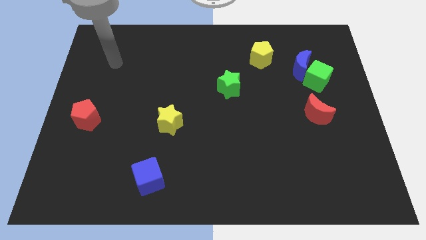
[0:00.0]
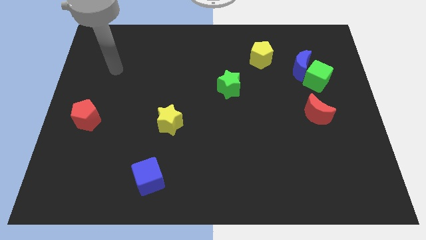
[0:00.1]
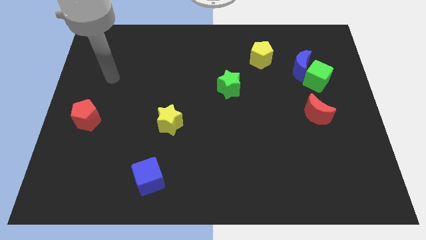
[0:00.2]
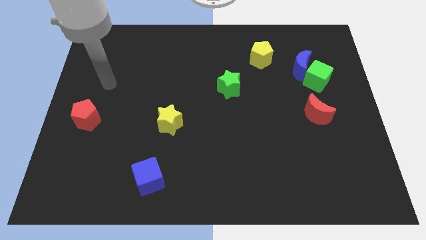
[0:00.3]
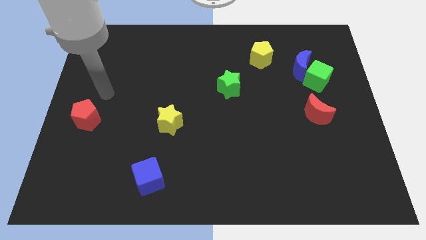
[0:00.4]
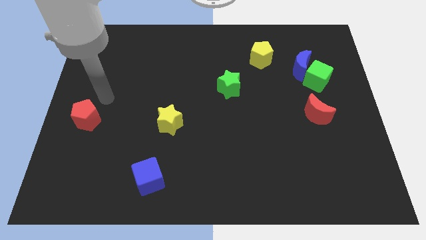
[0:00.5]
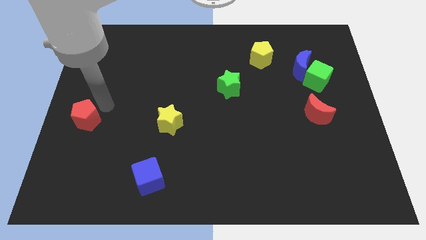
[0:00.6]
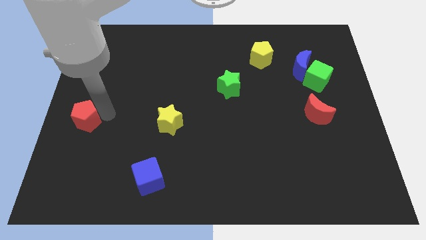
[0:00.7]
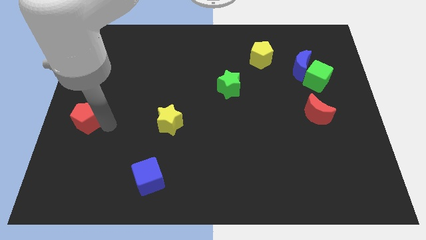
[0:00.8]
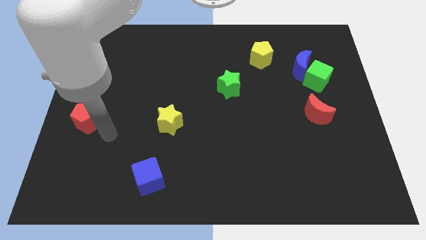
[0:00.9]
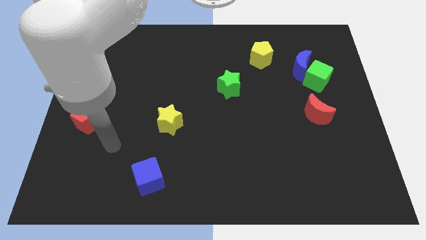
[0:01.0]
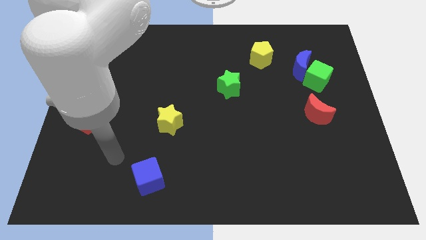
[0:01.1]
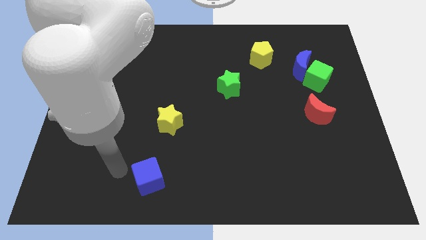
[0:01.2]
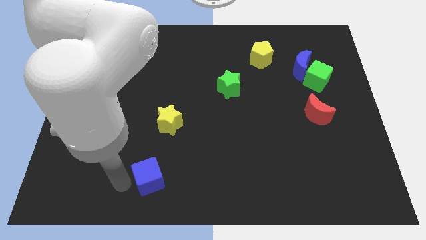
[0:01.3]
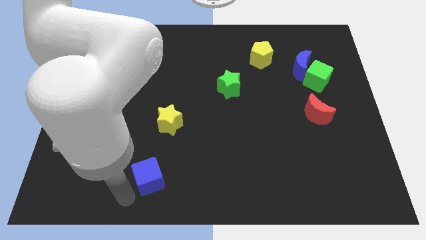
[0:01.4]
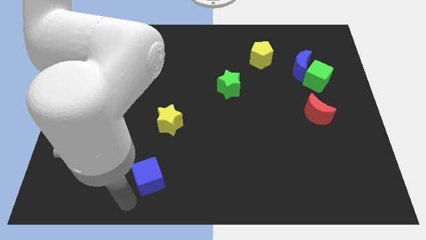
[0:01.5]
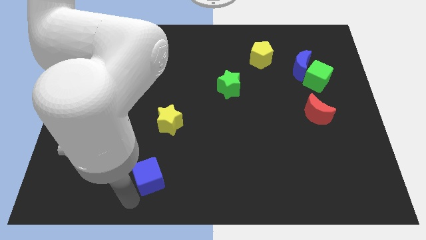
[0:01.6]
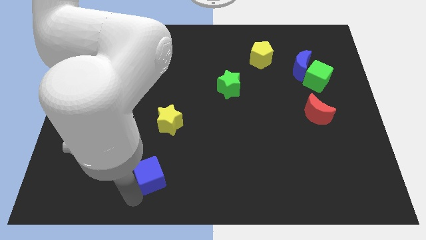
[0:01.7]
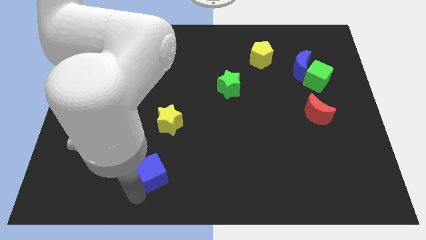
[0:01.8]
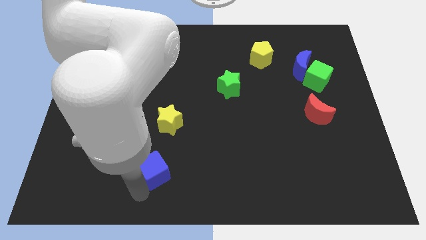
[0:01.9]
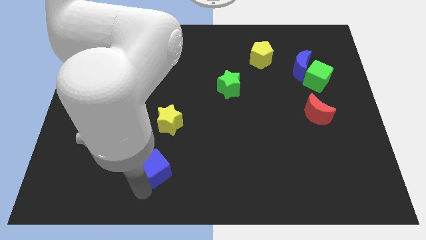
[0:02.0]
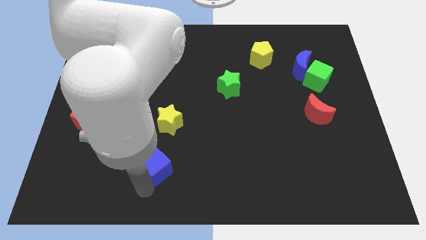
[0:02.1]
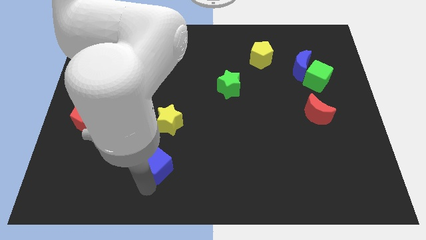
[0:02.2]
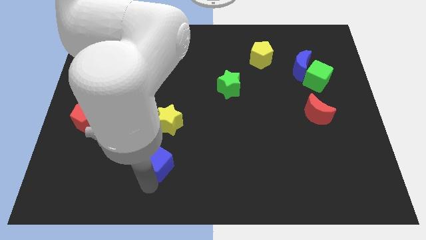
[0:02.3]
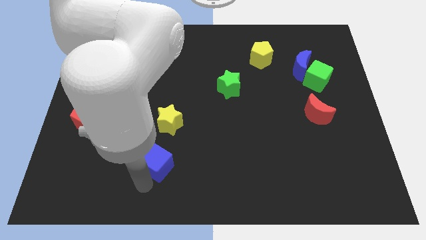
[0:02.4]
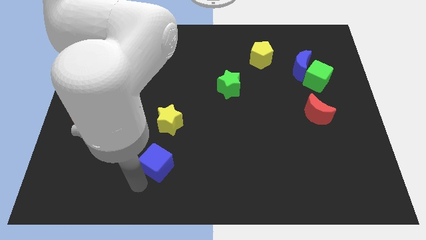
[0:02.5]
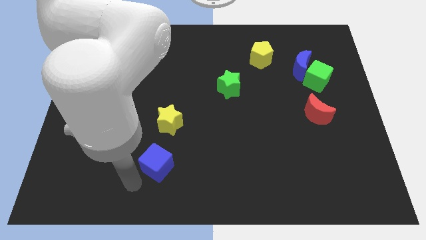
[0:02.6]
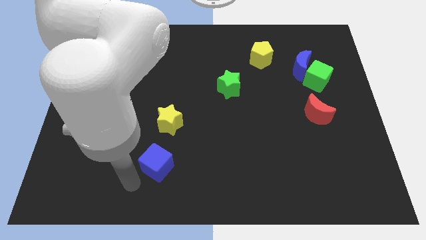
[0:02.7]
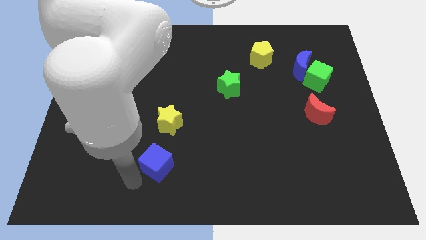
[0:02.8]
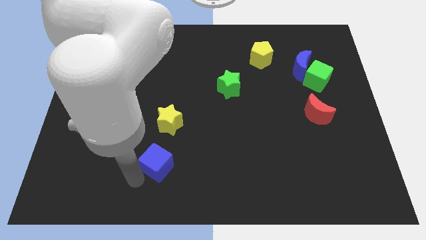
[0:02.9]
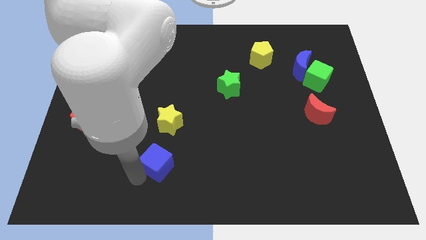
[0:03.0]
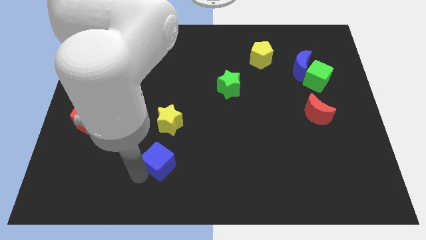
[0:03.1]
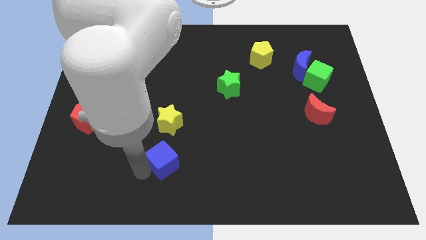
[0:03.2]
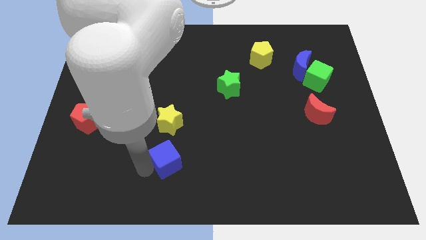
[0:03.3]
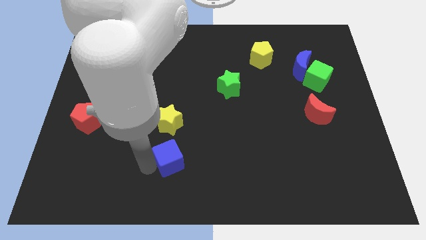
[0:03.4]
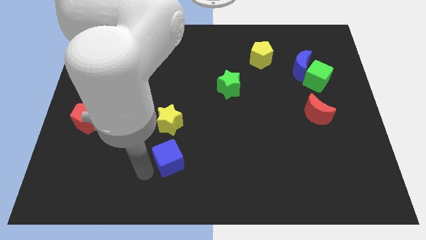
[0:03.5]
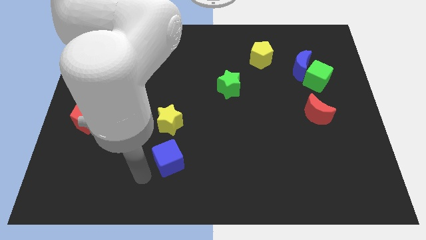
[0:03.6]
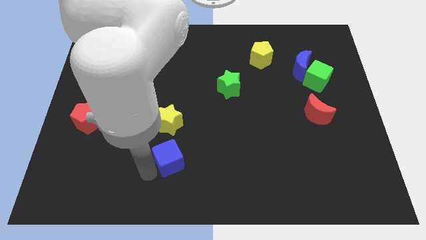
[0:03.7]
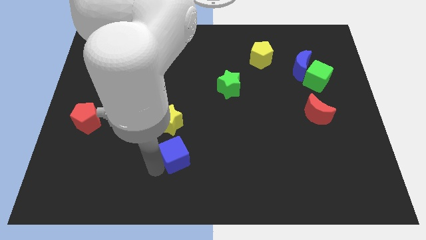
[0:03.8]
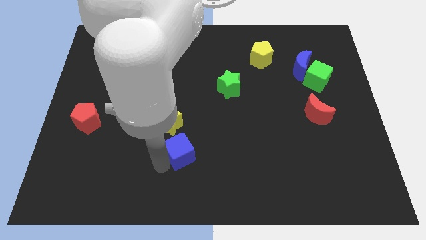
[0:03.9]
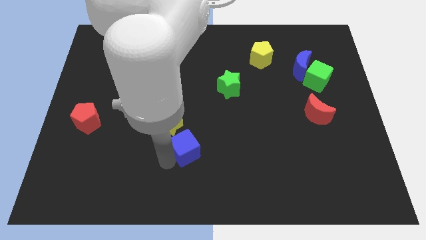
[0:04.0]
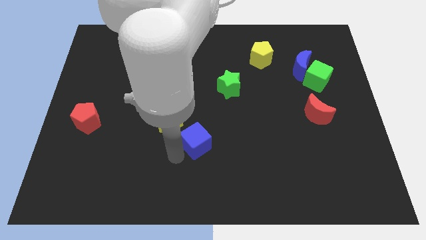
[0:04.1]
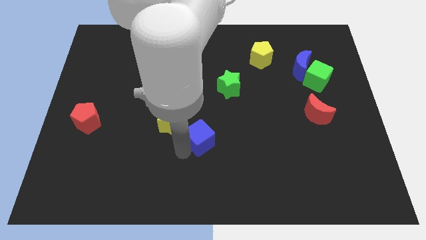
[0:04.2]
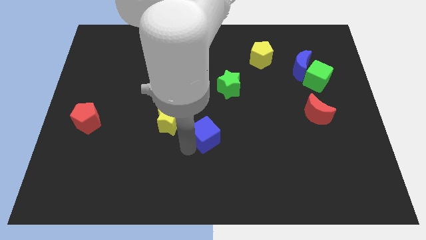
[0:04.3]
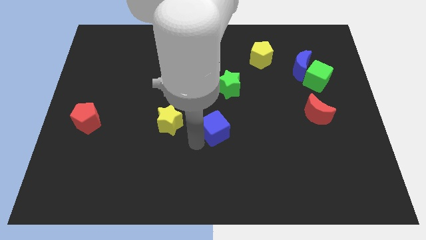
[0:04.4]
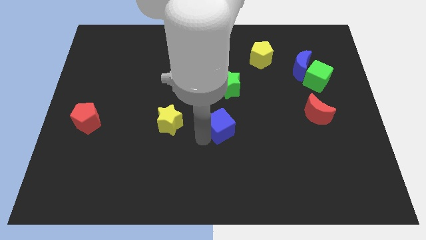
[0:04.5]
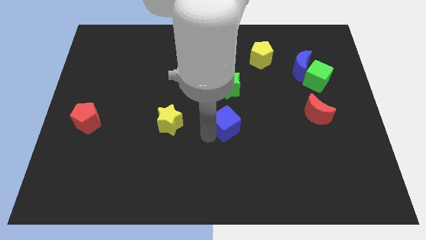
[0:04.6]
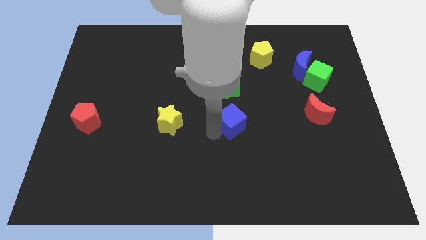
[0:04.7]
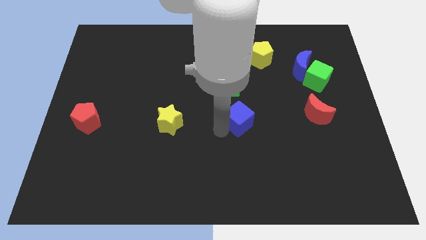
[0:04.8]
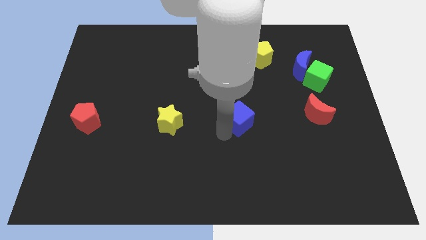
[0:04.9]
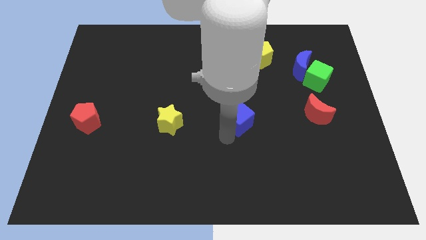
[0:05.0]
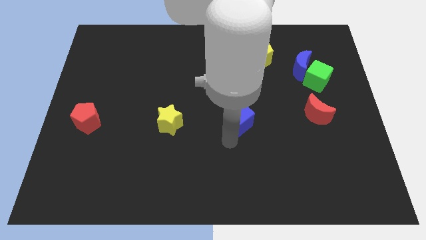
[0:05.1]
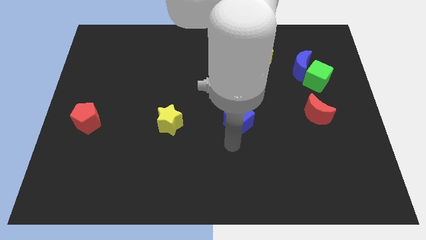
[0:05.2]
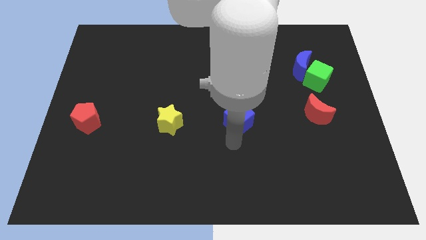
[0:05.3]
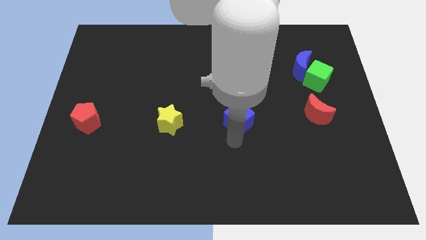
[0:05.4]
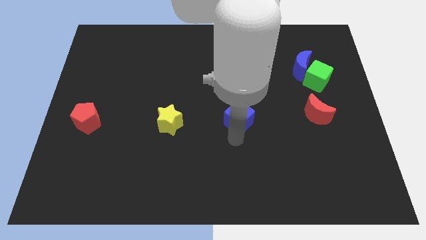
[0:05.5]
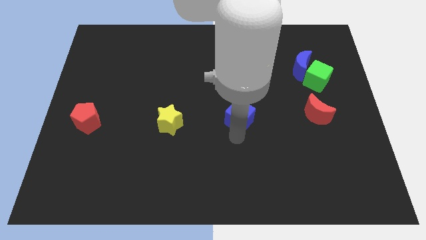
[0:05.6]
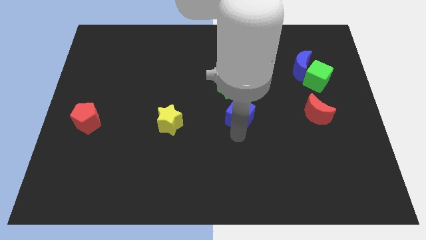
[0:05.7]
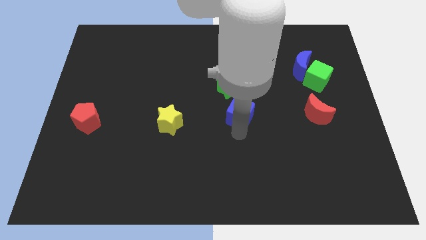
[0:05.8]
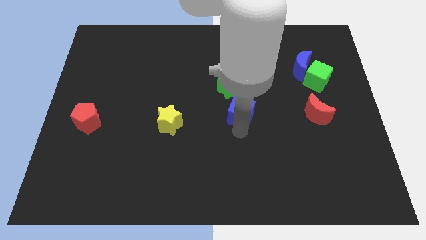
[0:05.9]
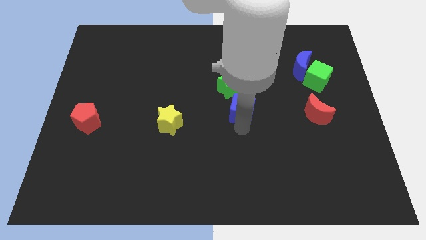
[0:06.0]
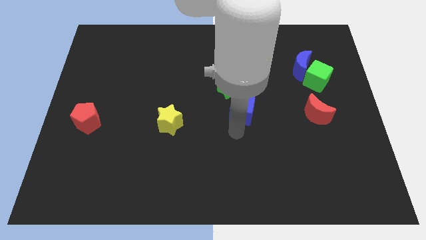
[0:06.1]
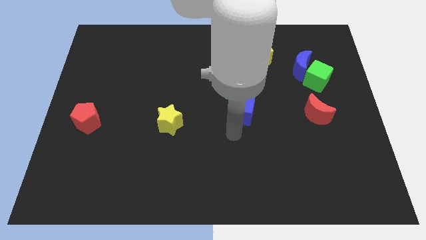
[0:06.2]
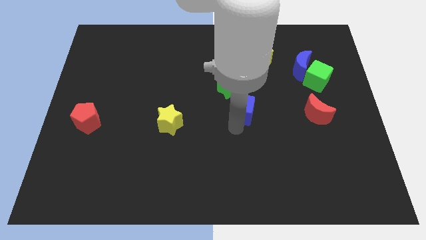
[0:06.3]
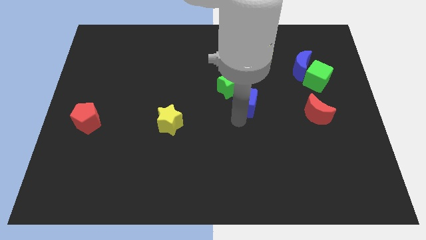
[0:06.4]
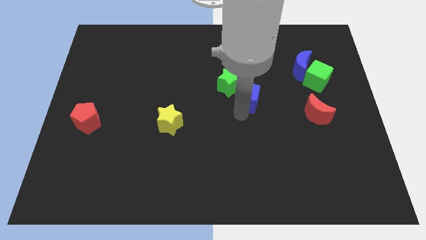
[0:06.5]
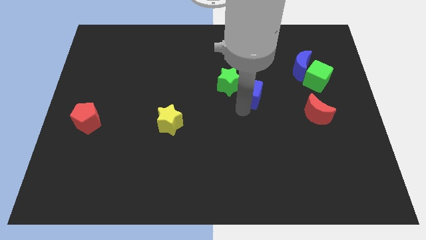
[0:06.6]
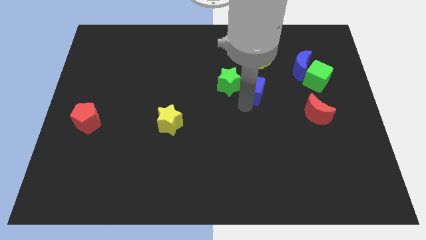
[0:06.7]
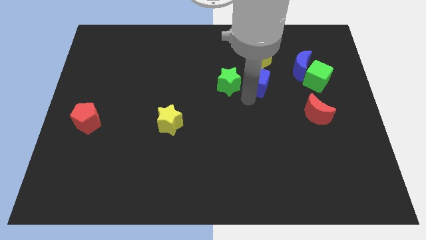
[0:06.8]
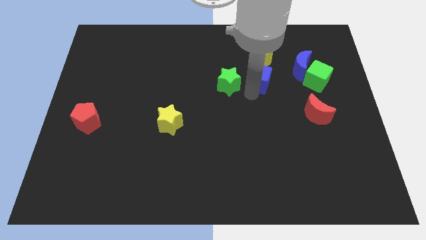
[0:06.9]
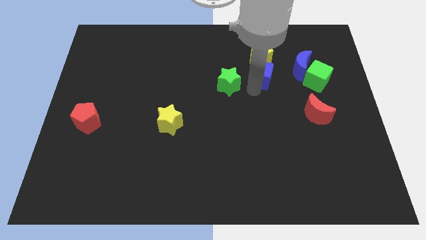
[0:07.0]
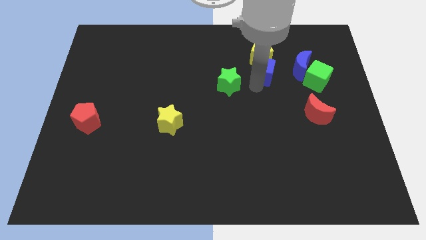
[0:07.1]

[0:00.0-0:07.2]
move the blue cube next to the yellow pentagon
